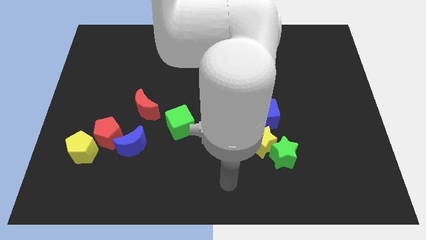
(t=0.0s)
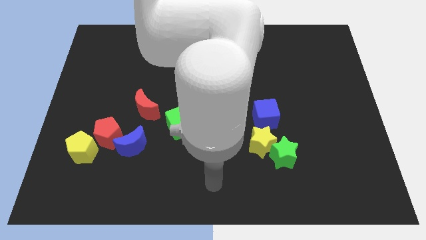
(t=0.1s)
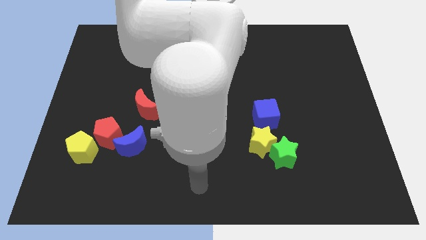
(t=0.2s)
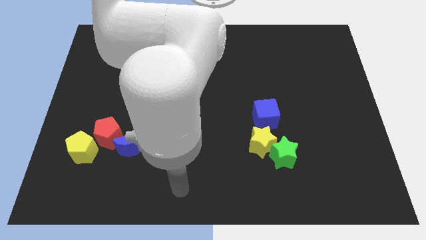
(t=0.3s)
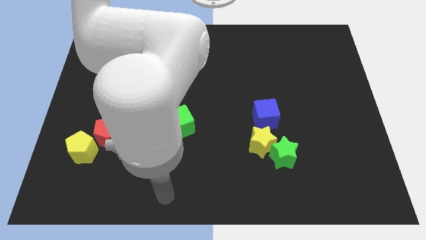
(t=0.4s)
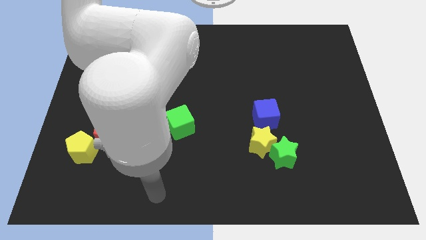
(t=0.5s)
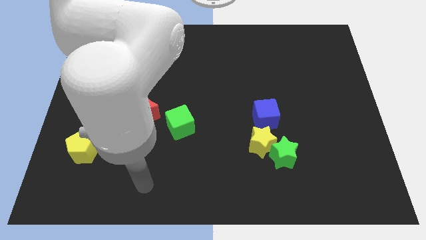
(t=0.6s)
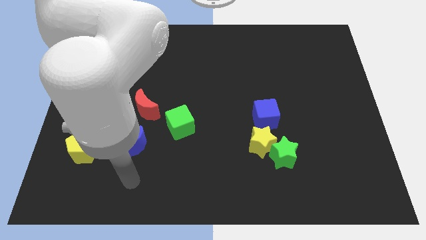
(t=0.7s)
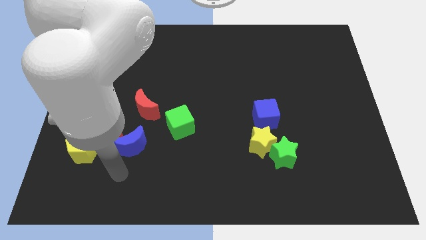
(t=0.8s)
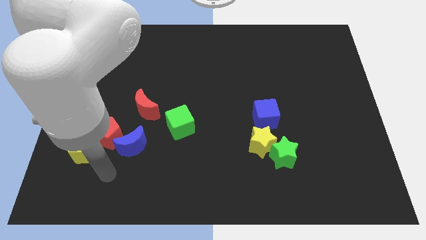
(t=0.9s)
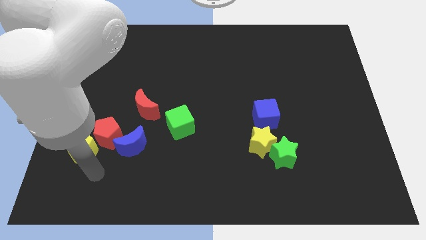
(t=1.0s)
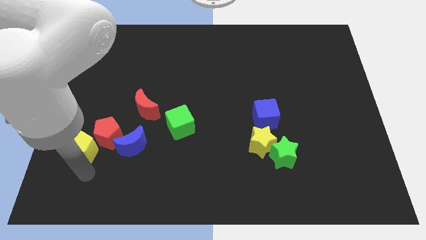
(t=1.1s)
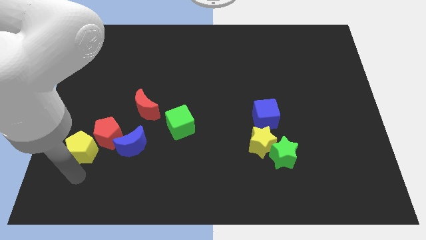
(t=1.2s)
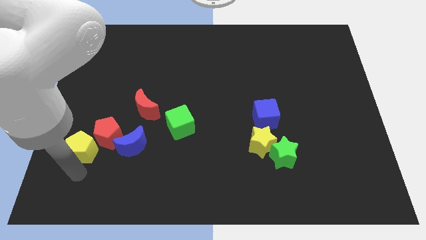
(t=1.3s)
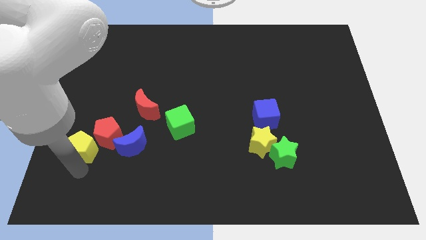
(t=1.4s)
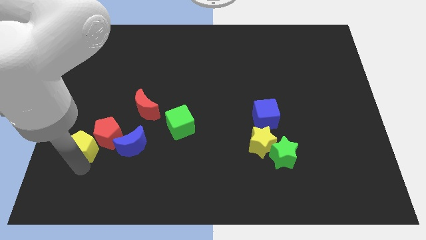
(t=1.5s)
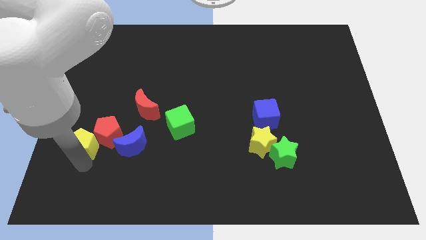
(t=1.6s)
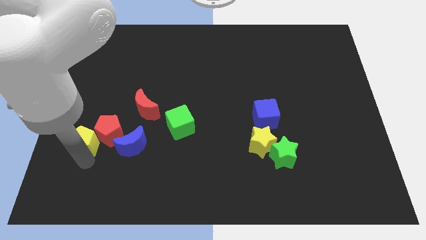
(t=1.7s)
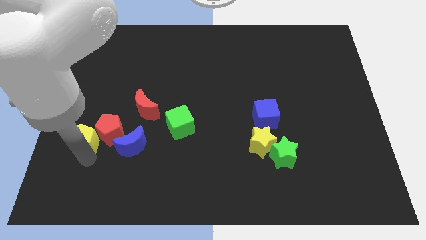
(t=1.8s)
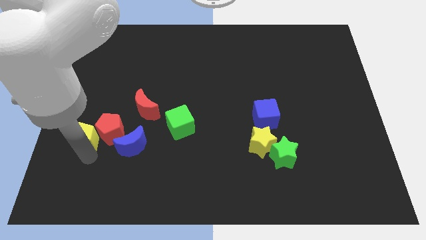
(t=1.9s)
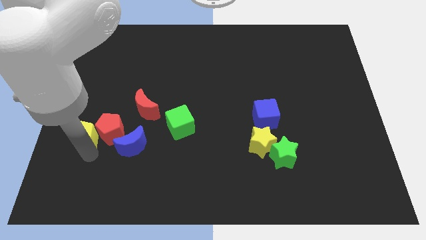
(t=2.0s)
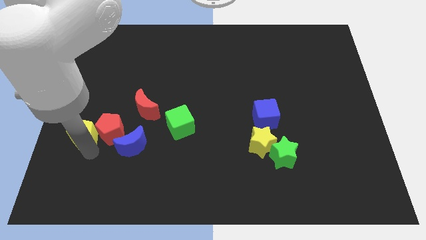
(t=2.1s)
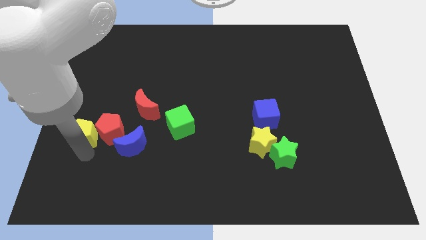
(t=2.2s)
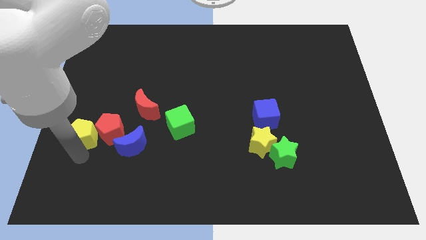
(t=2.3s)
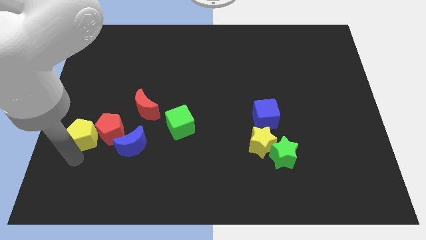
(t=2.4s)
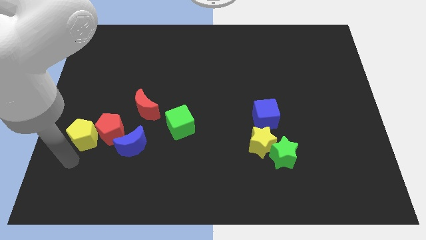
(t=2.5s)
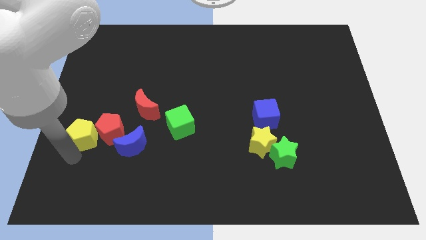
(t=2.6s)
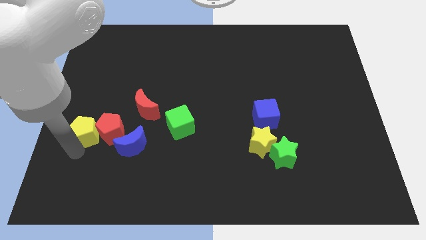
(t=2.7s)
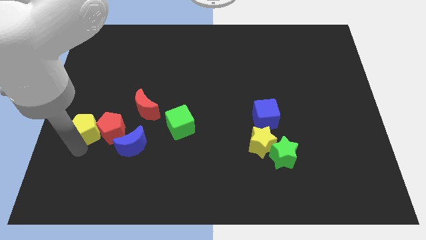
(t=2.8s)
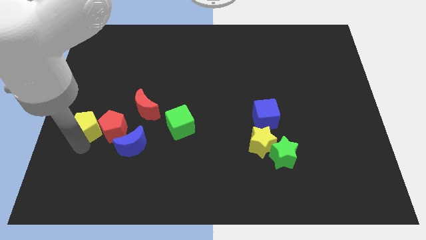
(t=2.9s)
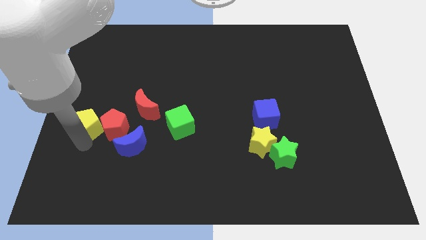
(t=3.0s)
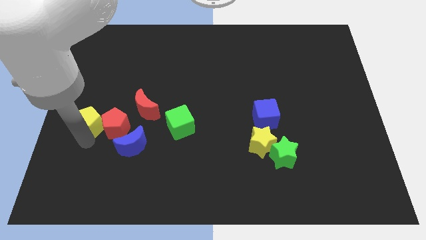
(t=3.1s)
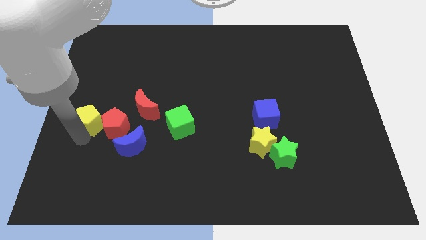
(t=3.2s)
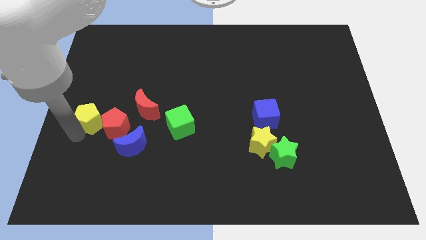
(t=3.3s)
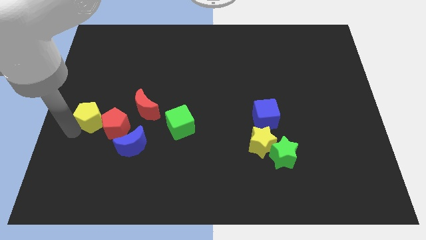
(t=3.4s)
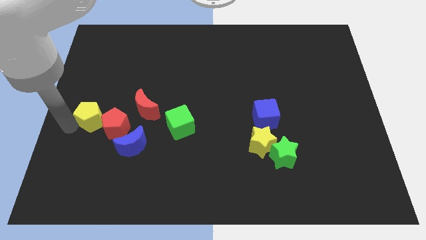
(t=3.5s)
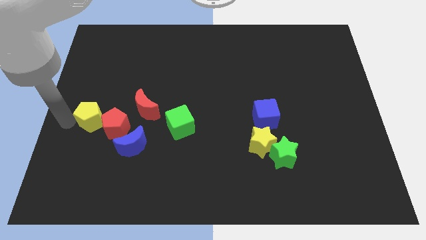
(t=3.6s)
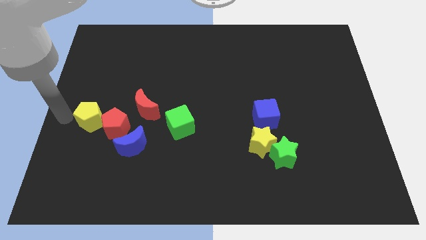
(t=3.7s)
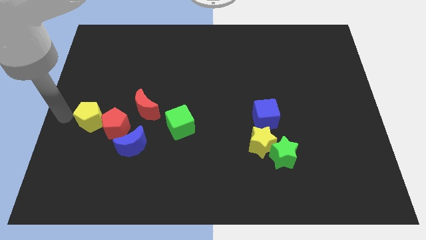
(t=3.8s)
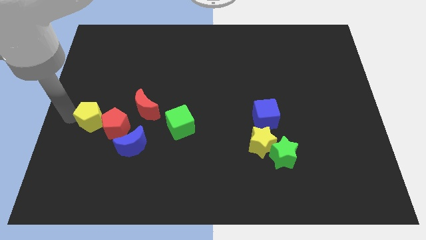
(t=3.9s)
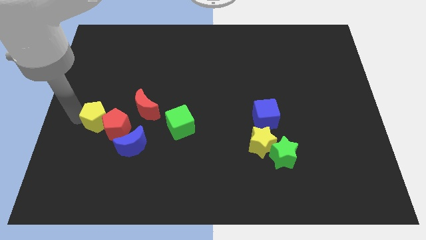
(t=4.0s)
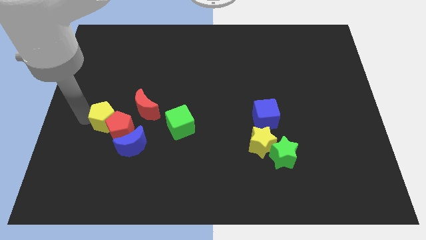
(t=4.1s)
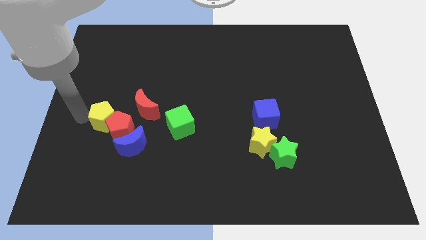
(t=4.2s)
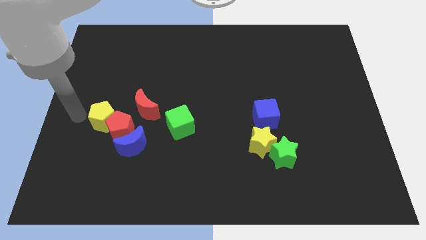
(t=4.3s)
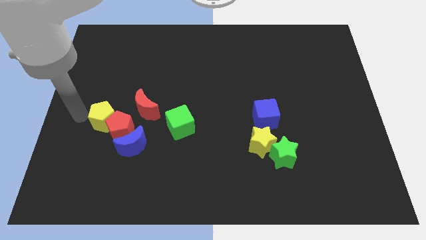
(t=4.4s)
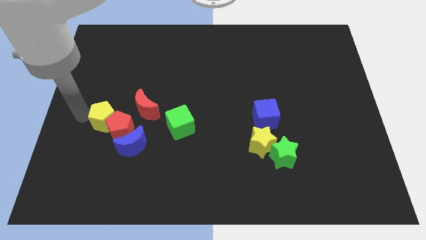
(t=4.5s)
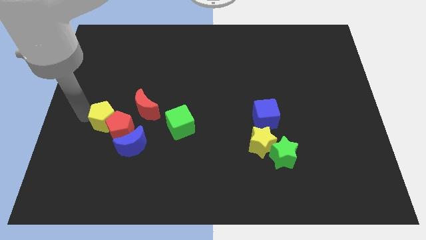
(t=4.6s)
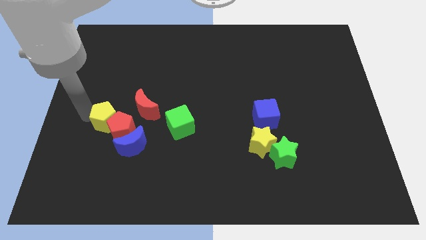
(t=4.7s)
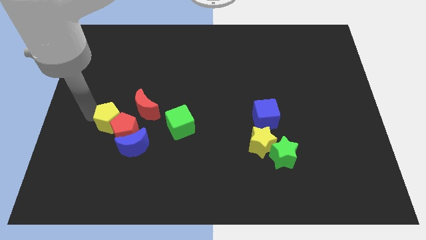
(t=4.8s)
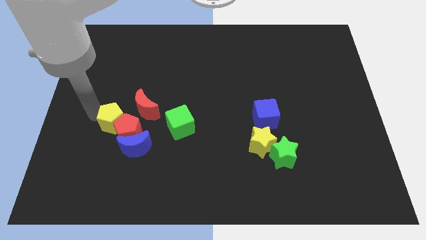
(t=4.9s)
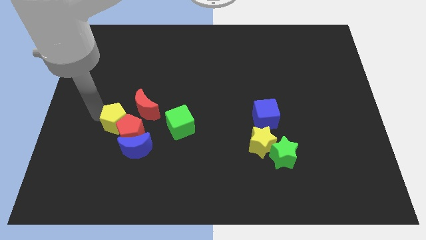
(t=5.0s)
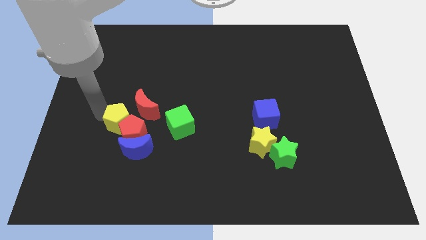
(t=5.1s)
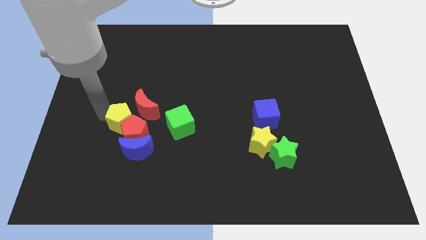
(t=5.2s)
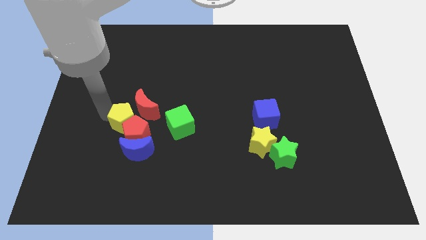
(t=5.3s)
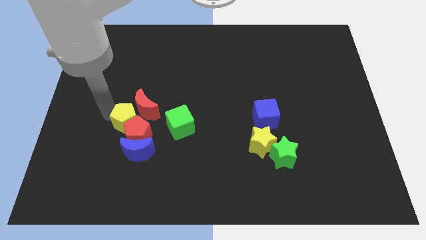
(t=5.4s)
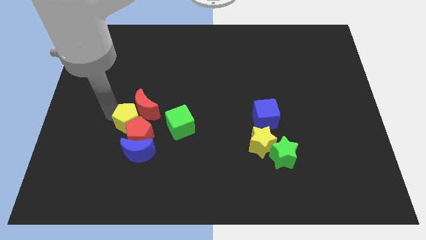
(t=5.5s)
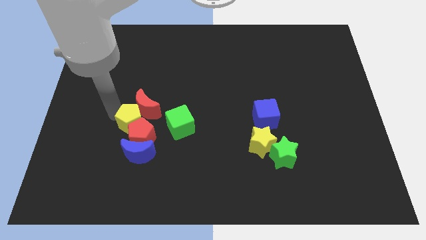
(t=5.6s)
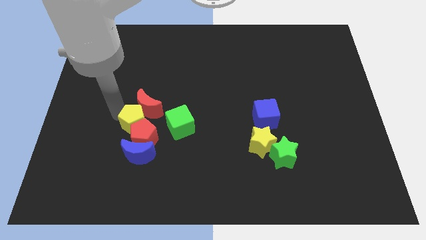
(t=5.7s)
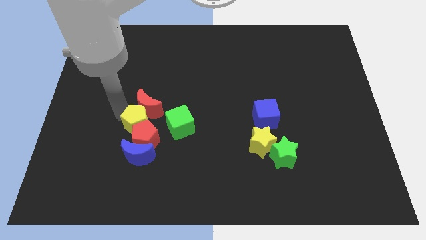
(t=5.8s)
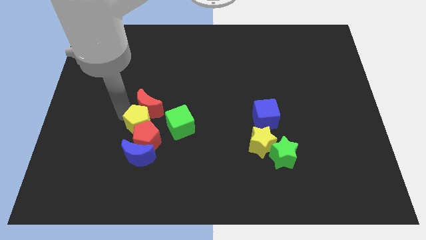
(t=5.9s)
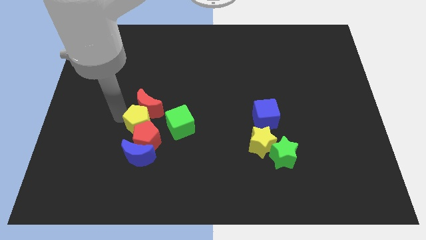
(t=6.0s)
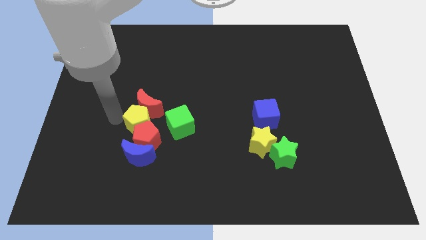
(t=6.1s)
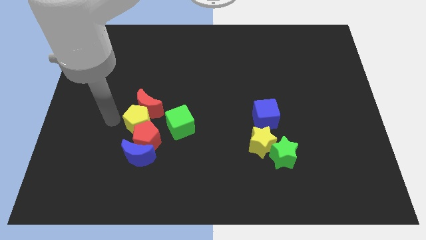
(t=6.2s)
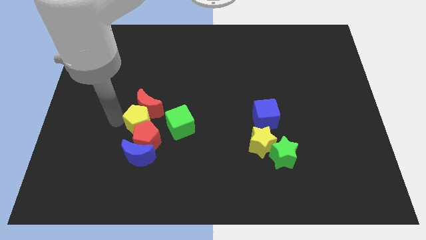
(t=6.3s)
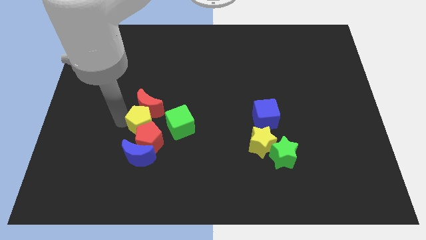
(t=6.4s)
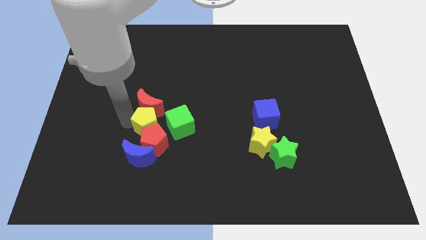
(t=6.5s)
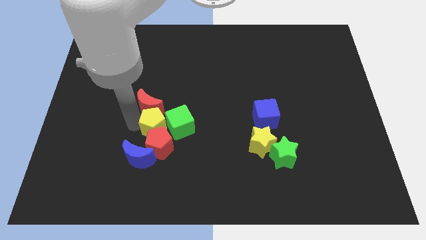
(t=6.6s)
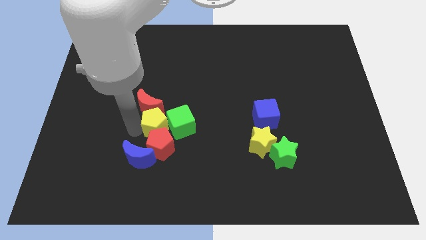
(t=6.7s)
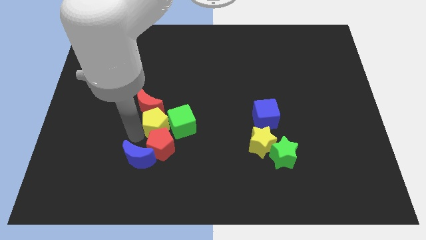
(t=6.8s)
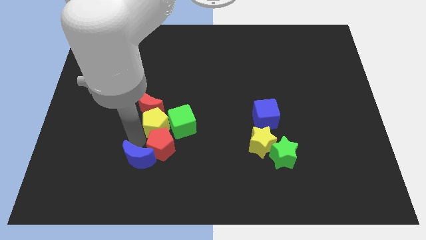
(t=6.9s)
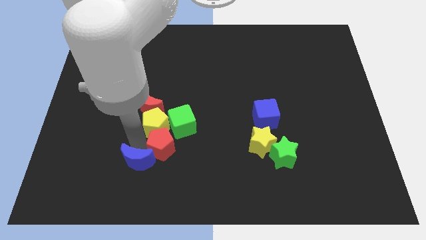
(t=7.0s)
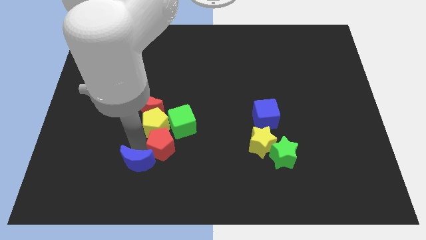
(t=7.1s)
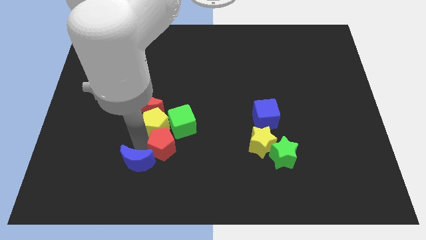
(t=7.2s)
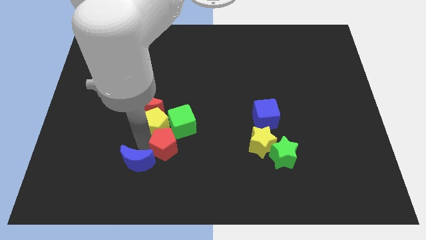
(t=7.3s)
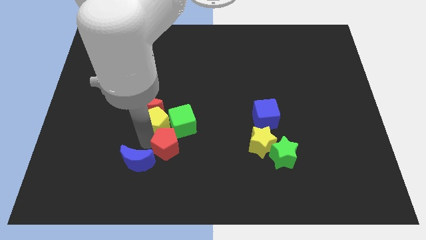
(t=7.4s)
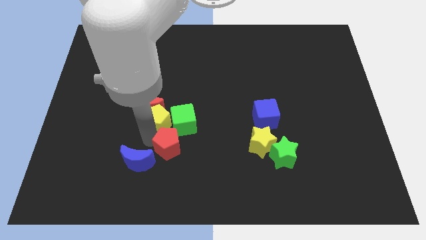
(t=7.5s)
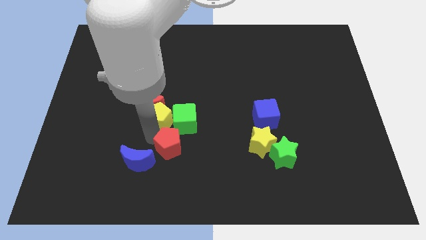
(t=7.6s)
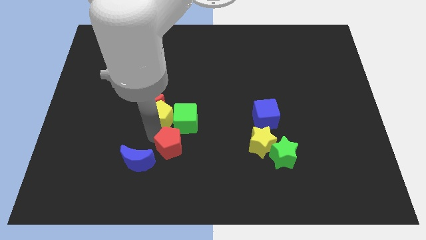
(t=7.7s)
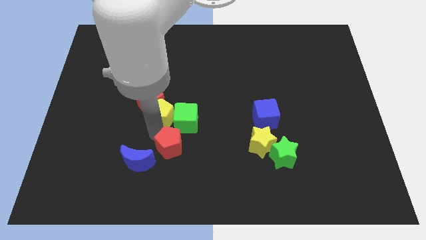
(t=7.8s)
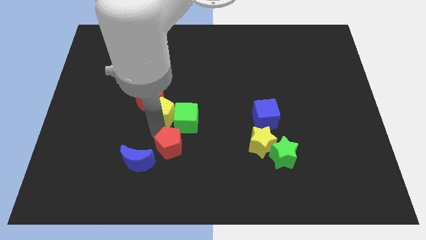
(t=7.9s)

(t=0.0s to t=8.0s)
put the yellow pentagon to the middle of the board
